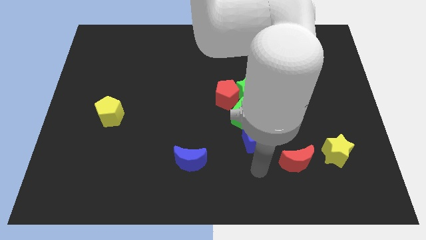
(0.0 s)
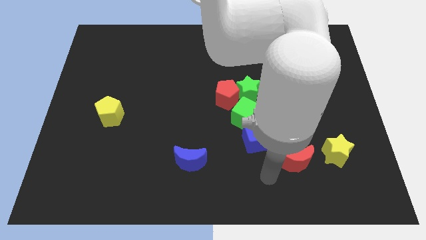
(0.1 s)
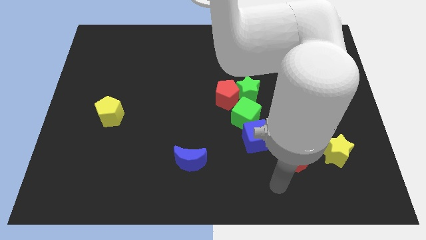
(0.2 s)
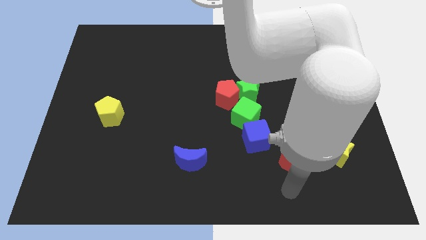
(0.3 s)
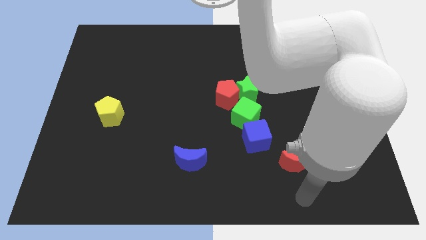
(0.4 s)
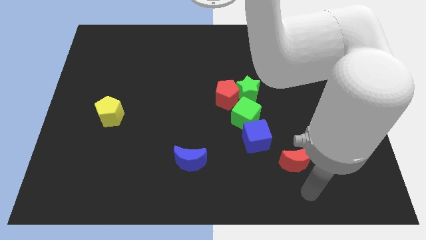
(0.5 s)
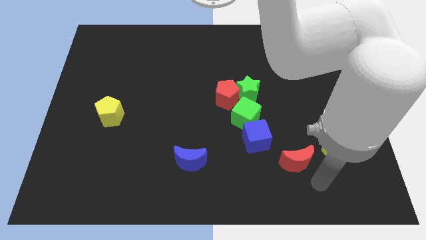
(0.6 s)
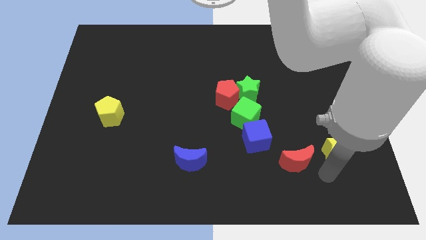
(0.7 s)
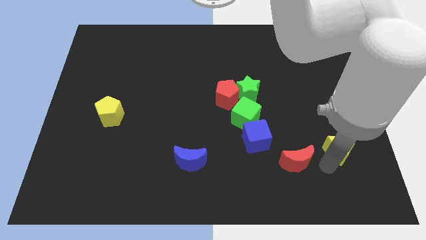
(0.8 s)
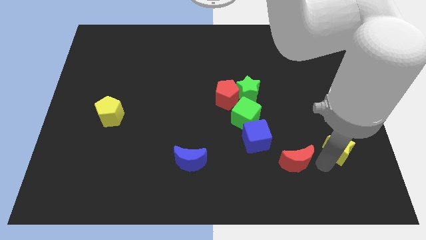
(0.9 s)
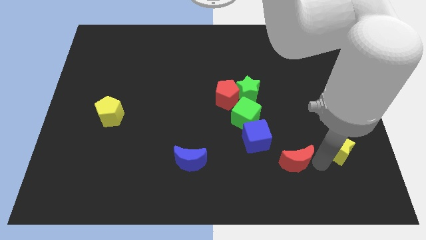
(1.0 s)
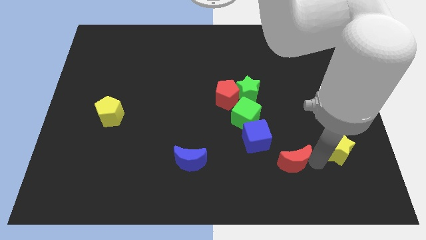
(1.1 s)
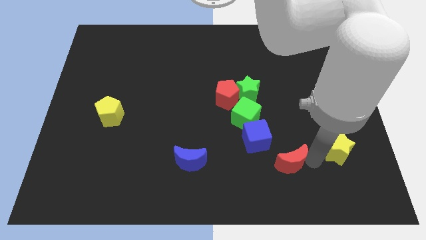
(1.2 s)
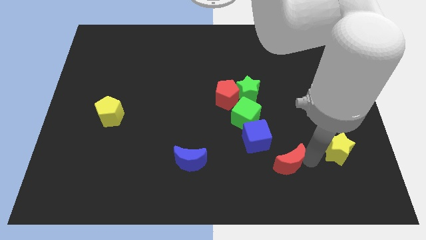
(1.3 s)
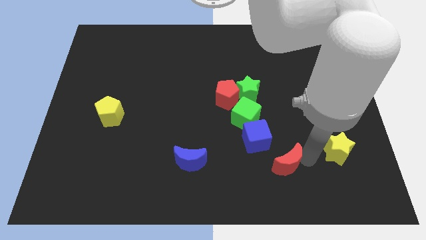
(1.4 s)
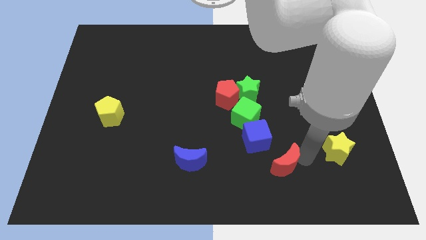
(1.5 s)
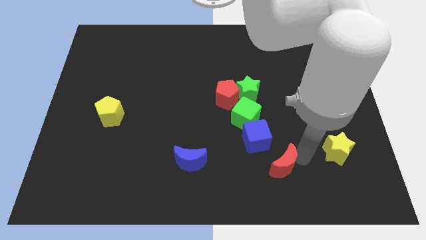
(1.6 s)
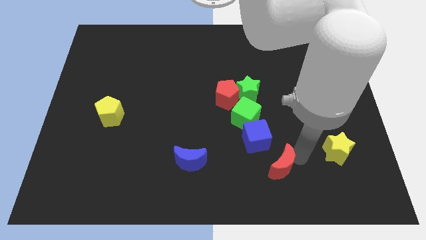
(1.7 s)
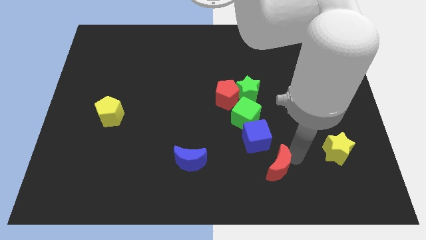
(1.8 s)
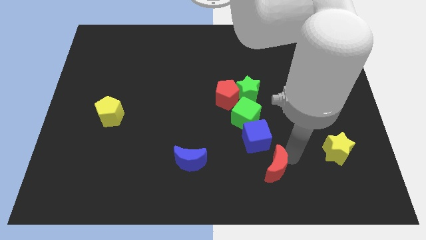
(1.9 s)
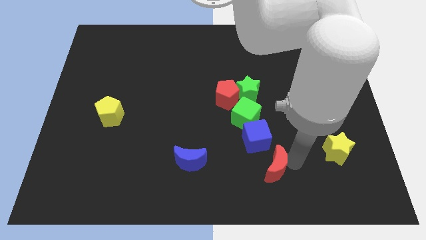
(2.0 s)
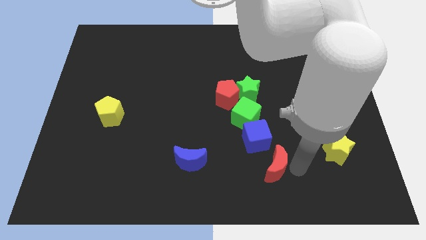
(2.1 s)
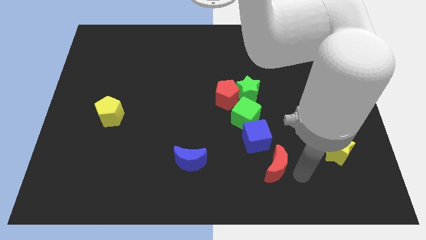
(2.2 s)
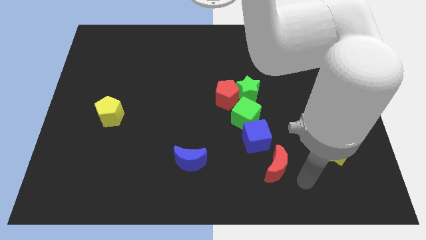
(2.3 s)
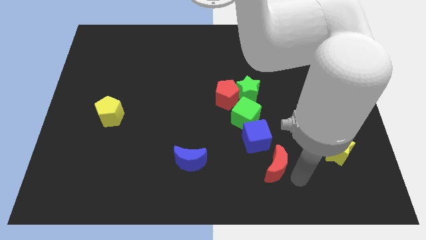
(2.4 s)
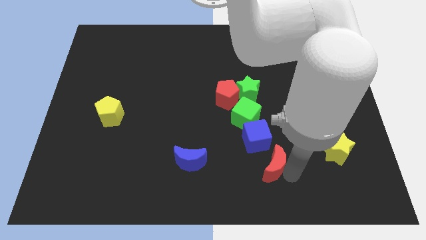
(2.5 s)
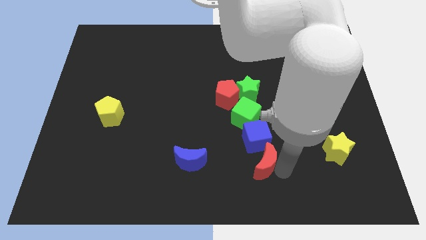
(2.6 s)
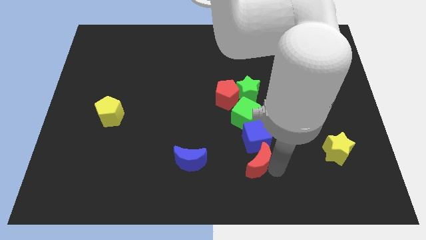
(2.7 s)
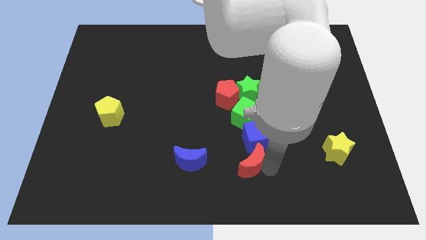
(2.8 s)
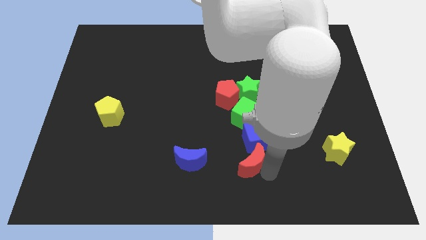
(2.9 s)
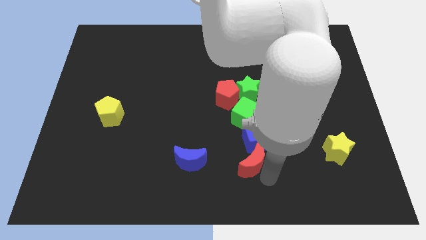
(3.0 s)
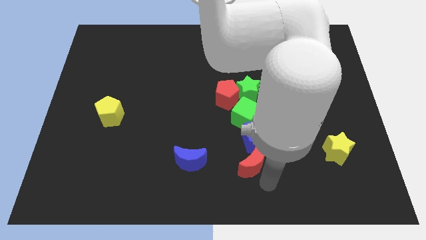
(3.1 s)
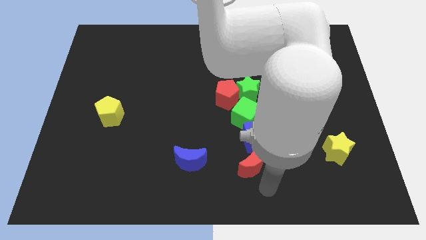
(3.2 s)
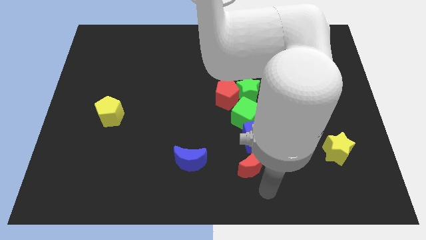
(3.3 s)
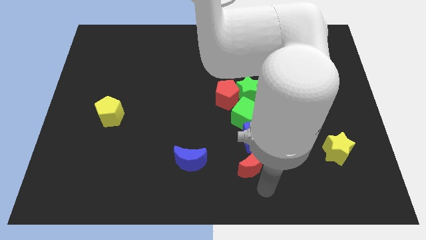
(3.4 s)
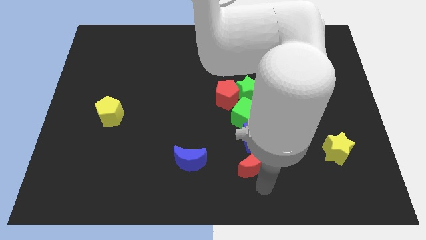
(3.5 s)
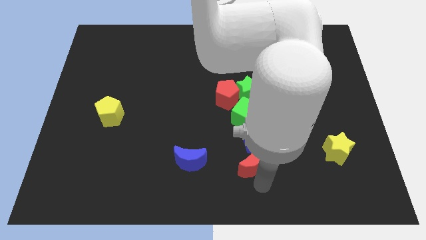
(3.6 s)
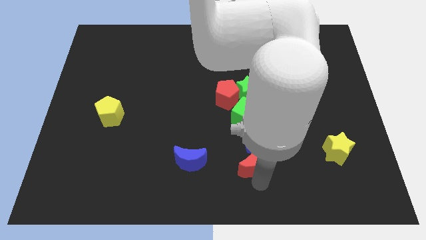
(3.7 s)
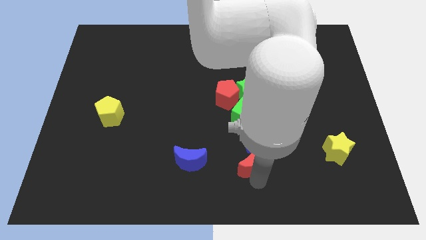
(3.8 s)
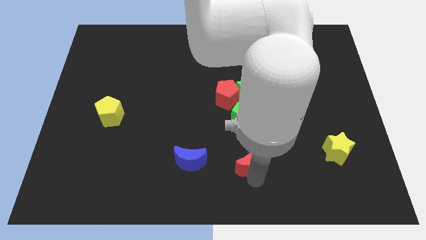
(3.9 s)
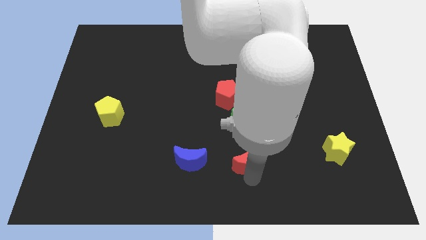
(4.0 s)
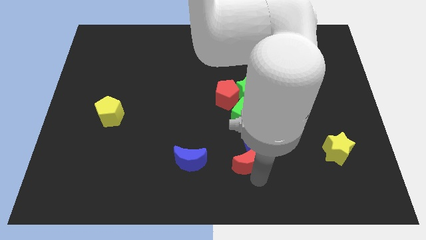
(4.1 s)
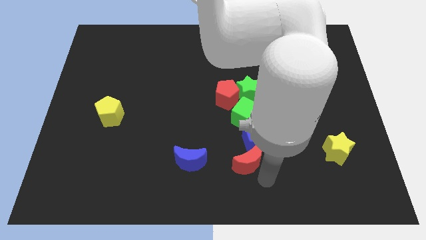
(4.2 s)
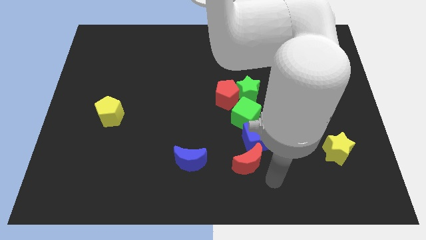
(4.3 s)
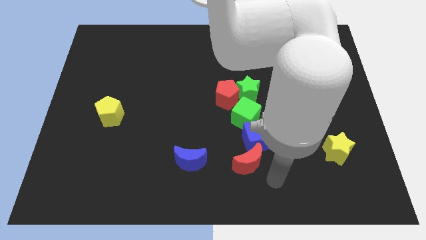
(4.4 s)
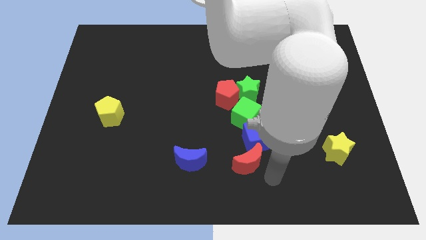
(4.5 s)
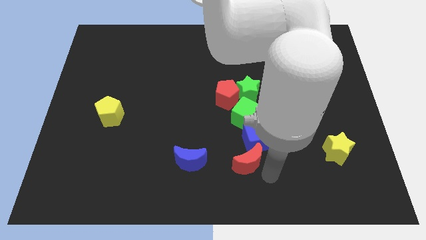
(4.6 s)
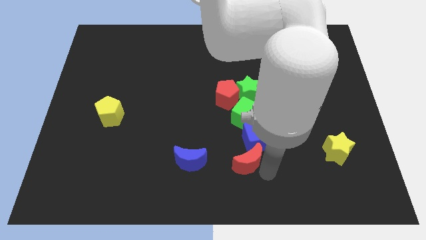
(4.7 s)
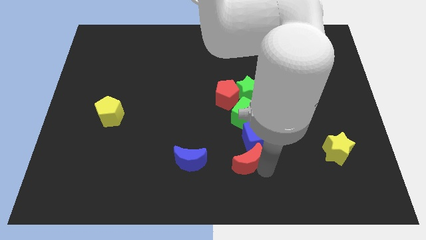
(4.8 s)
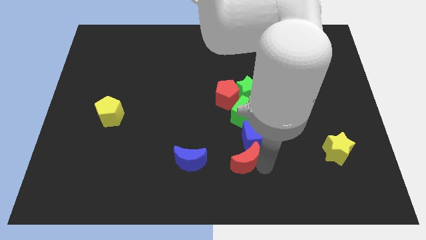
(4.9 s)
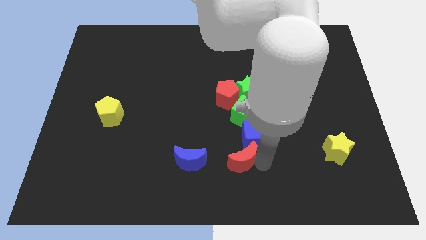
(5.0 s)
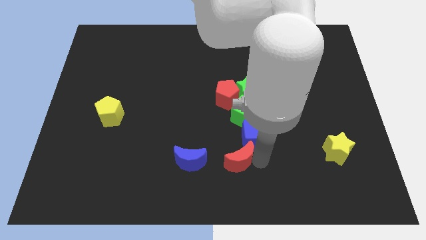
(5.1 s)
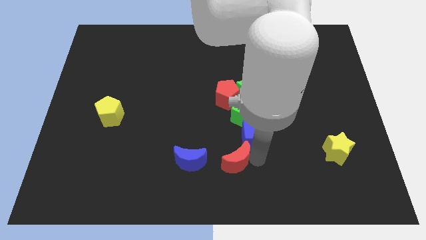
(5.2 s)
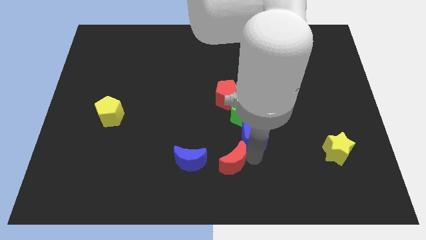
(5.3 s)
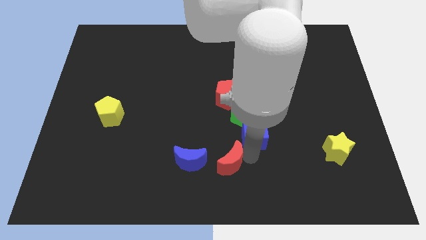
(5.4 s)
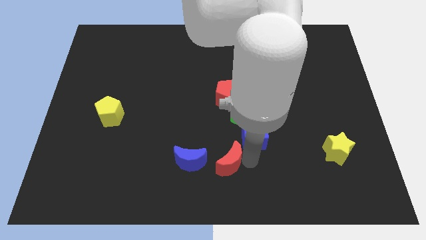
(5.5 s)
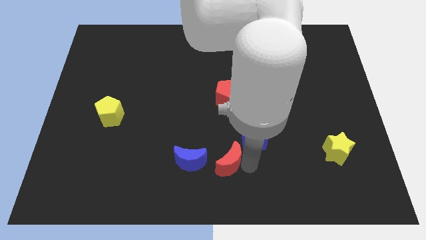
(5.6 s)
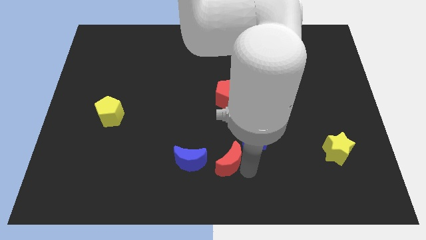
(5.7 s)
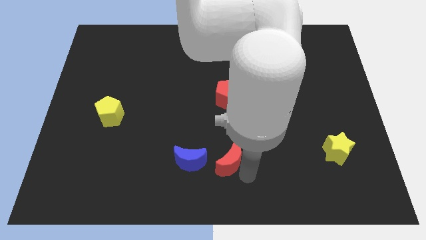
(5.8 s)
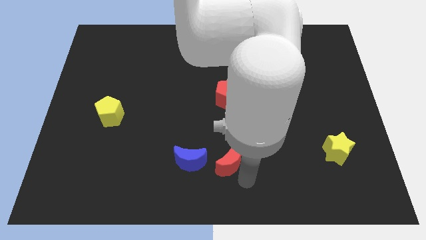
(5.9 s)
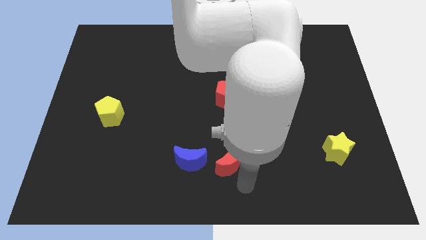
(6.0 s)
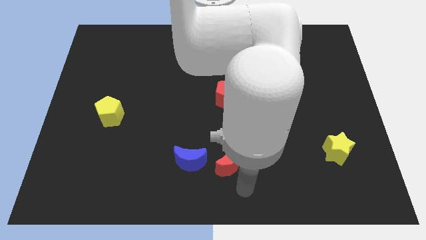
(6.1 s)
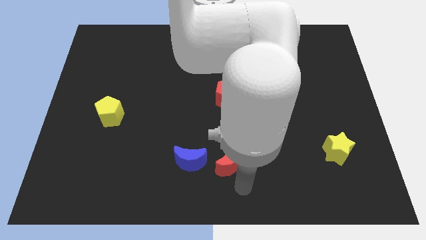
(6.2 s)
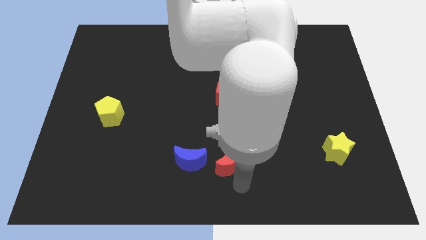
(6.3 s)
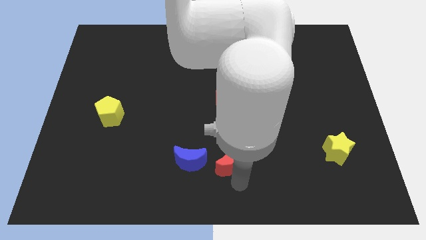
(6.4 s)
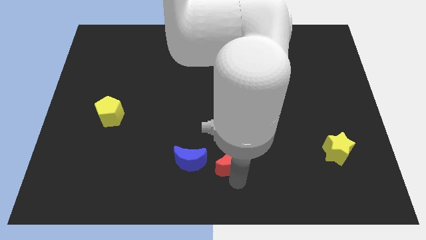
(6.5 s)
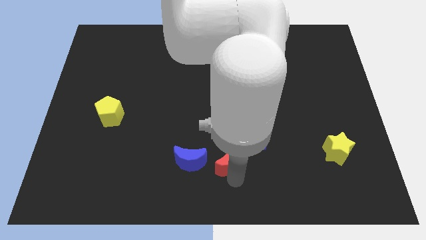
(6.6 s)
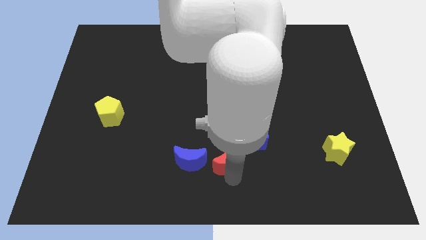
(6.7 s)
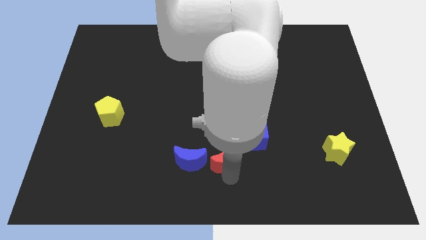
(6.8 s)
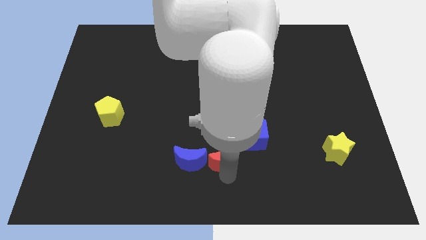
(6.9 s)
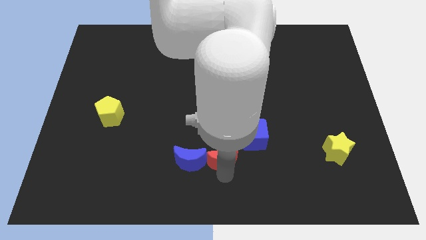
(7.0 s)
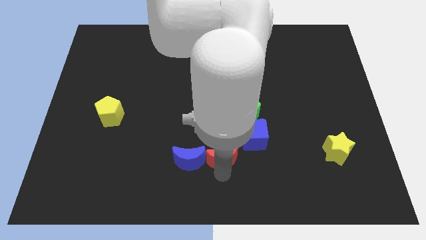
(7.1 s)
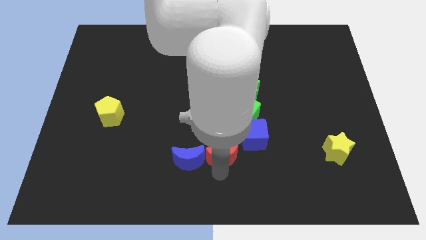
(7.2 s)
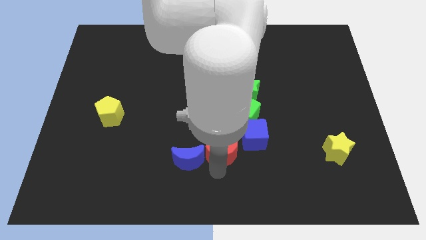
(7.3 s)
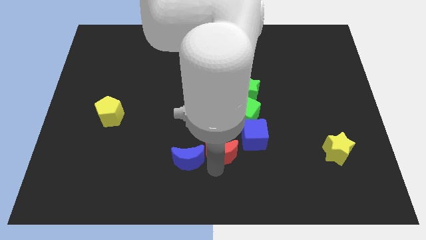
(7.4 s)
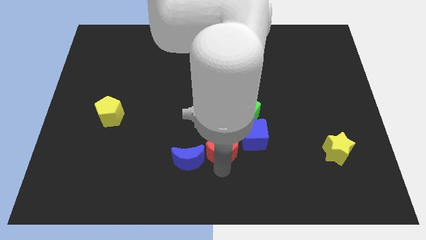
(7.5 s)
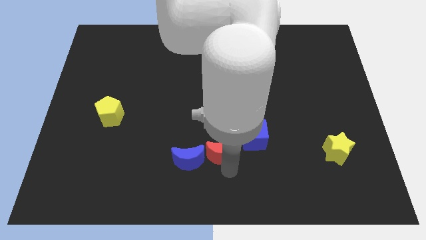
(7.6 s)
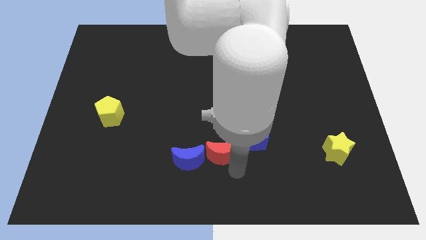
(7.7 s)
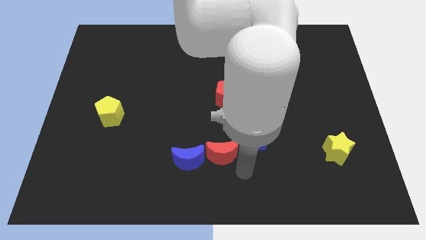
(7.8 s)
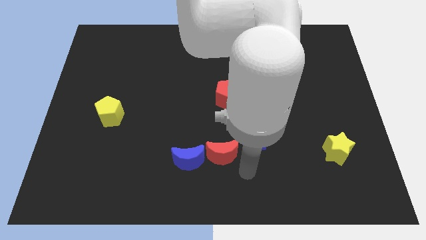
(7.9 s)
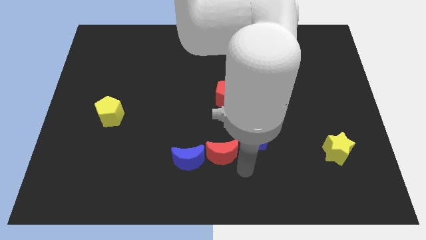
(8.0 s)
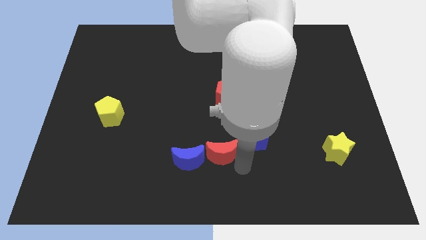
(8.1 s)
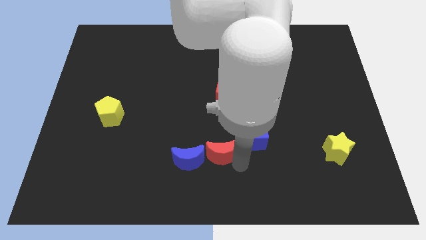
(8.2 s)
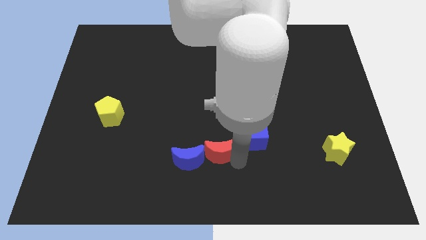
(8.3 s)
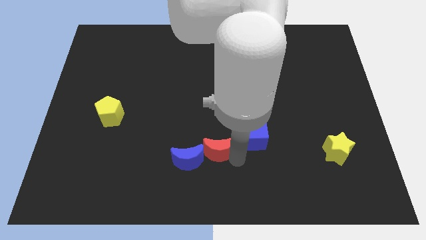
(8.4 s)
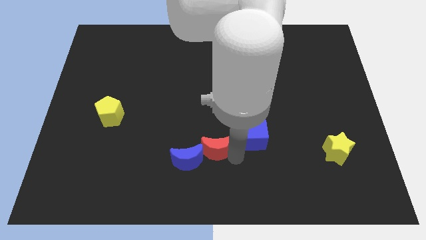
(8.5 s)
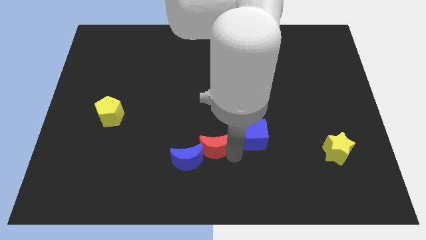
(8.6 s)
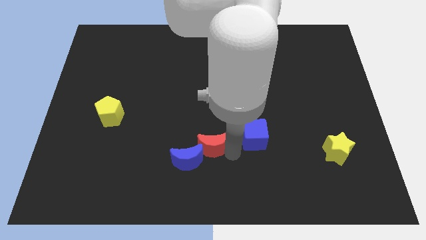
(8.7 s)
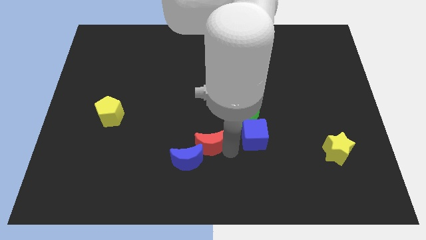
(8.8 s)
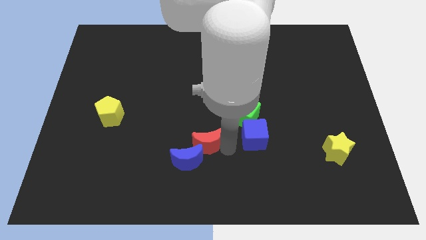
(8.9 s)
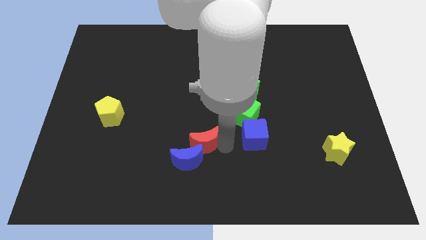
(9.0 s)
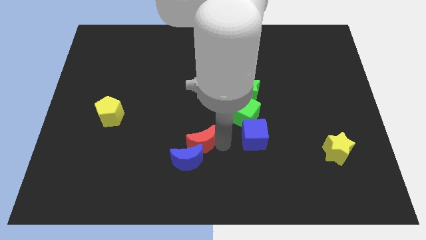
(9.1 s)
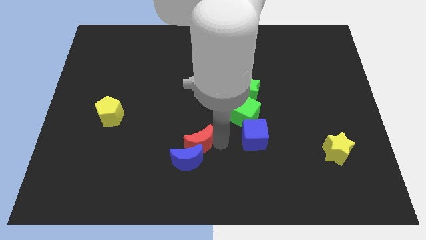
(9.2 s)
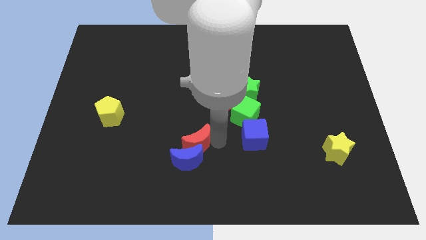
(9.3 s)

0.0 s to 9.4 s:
move the red moon to the left
